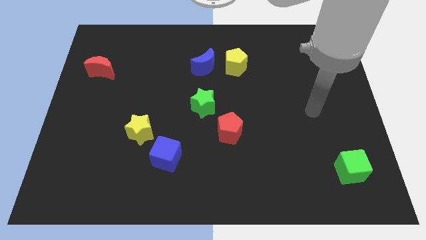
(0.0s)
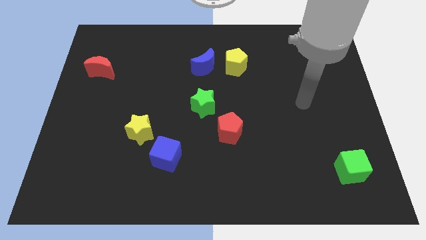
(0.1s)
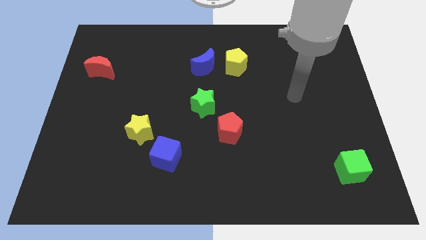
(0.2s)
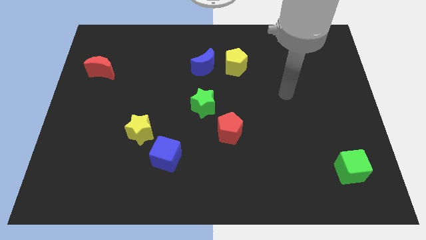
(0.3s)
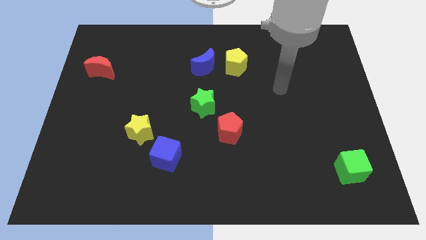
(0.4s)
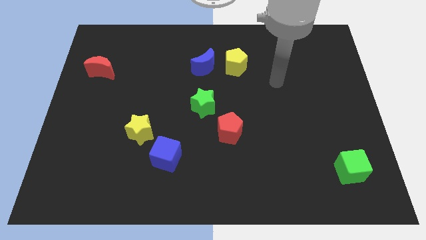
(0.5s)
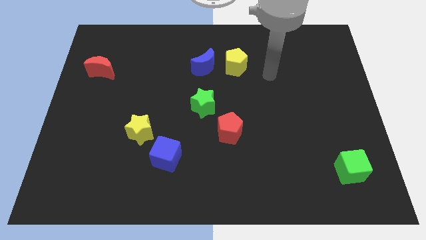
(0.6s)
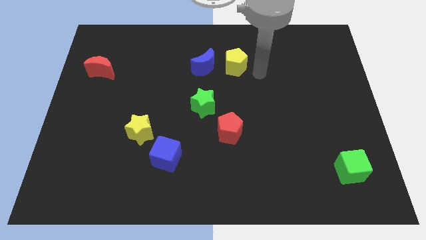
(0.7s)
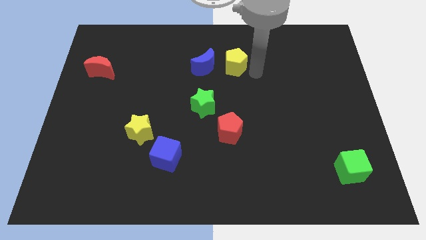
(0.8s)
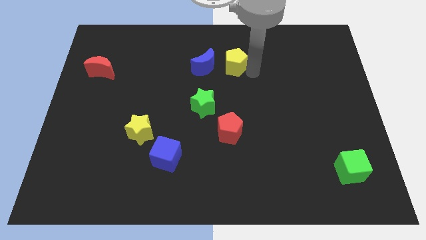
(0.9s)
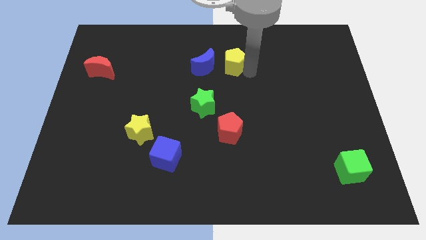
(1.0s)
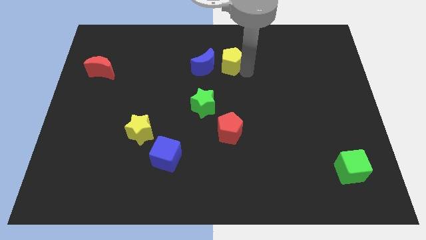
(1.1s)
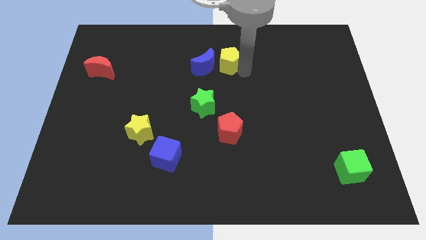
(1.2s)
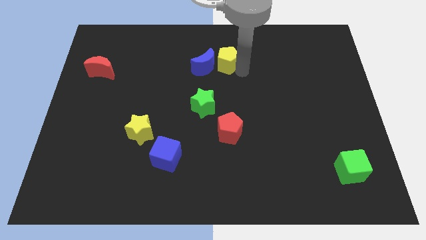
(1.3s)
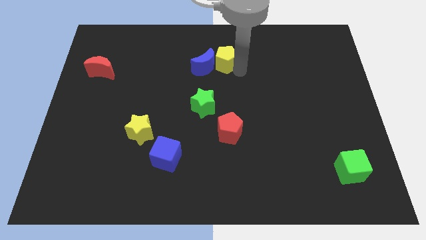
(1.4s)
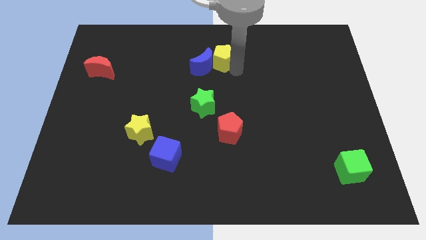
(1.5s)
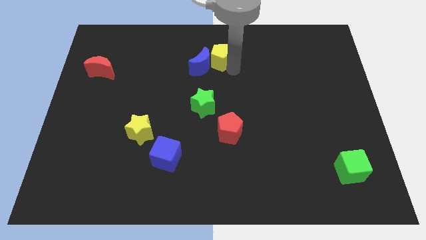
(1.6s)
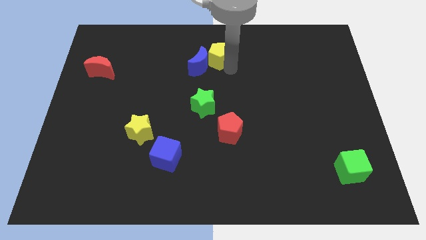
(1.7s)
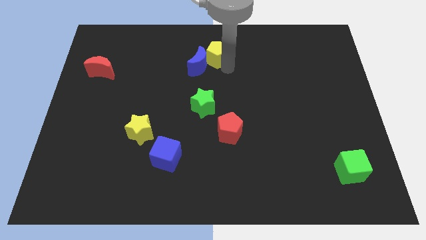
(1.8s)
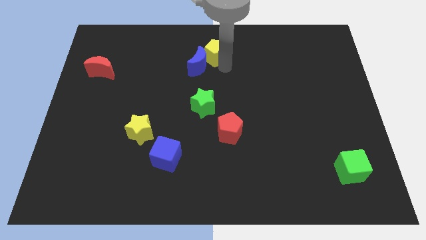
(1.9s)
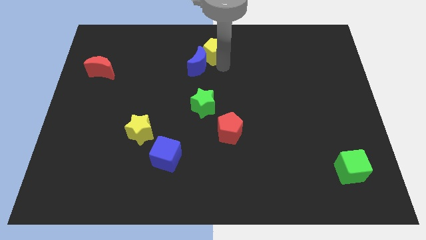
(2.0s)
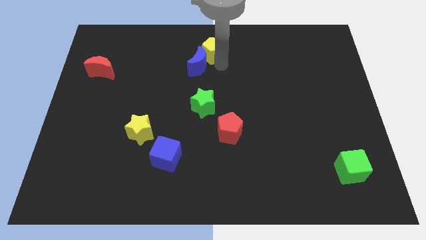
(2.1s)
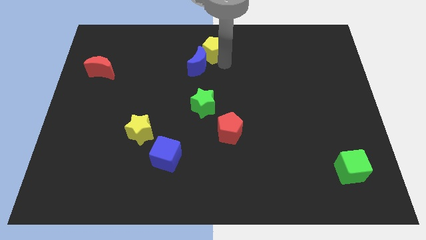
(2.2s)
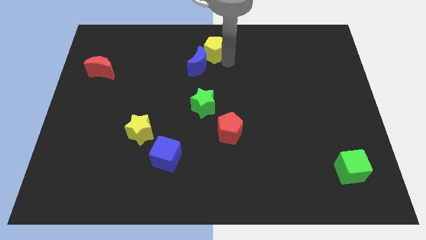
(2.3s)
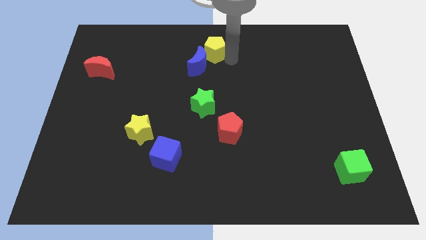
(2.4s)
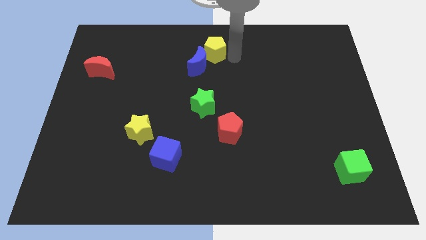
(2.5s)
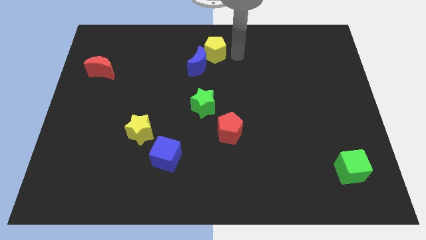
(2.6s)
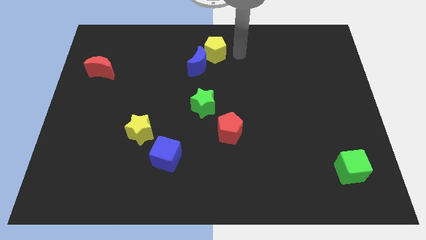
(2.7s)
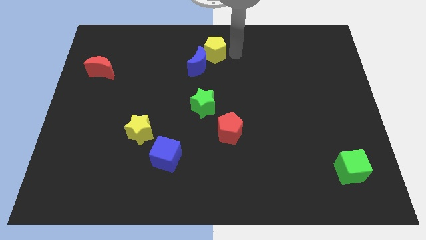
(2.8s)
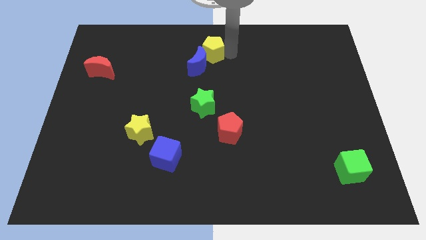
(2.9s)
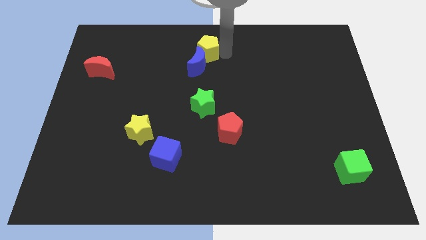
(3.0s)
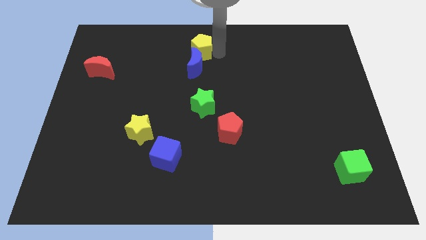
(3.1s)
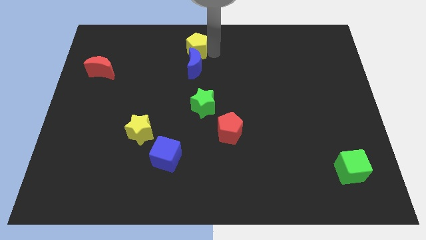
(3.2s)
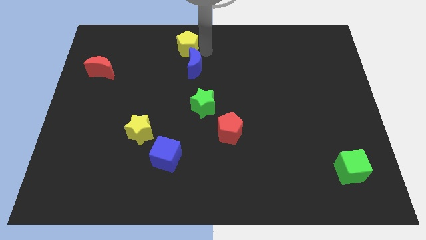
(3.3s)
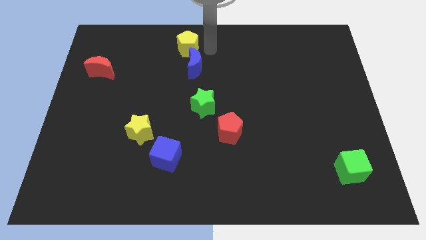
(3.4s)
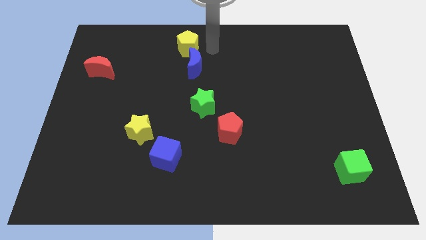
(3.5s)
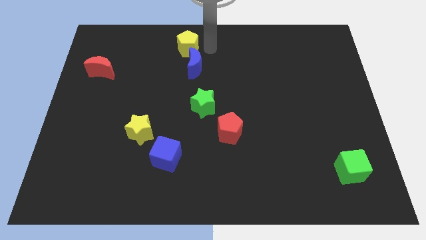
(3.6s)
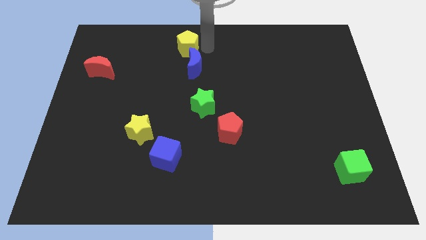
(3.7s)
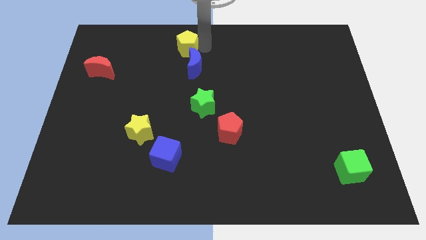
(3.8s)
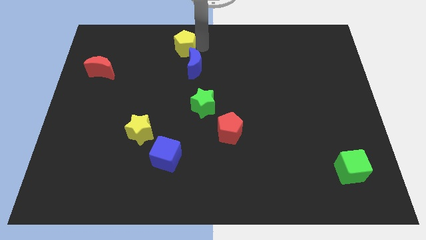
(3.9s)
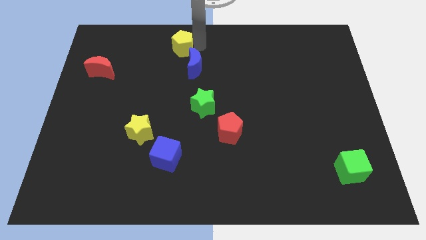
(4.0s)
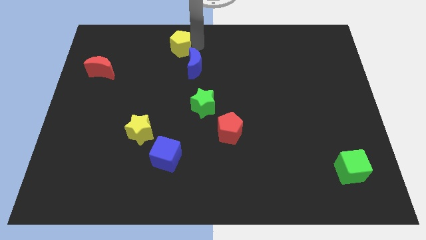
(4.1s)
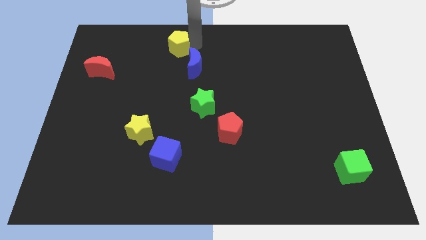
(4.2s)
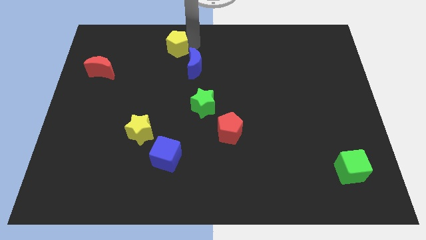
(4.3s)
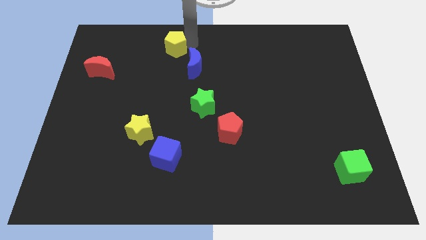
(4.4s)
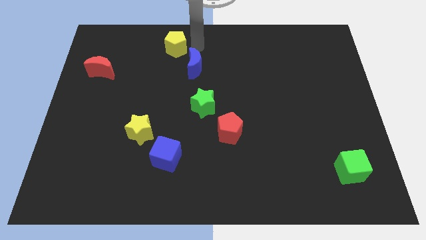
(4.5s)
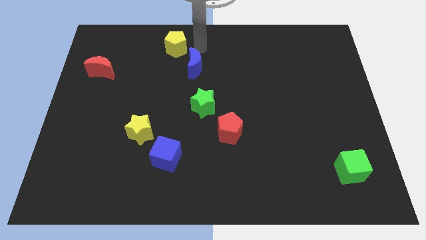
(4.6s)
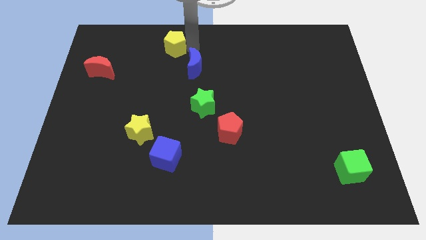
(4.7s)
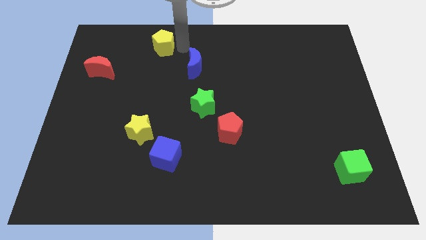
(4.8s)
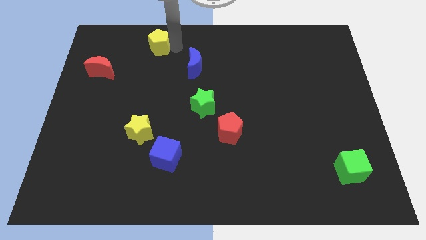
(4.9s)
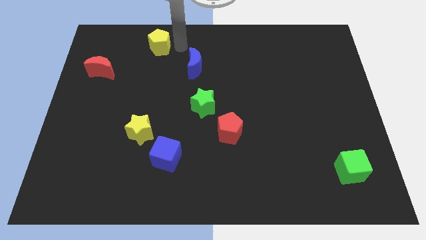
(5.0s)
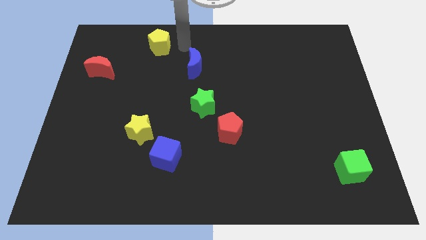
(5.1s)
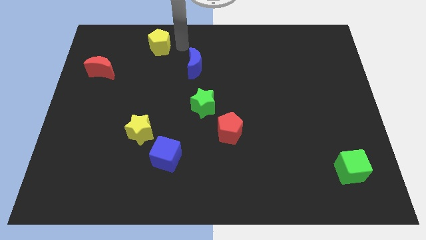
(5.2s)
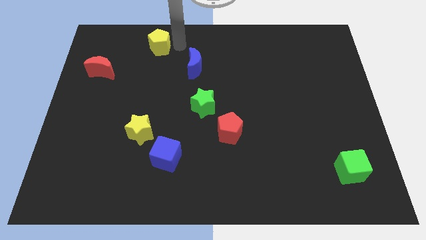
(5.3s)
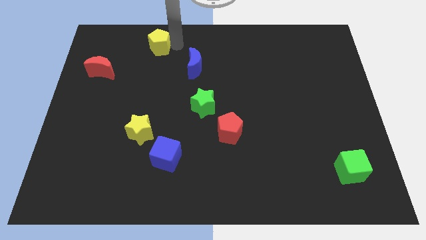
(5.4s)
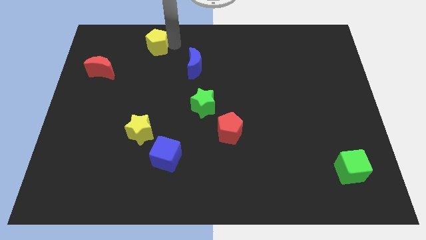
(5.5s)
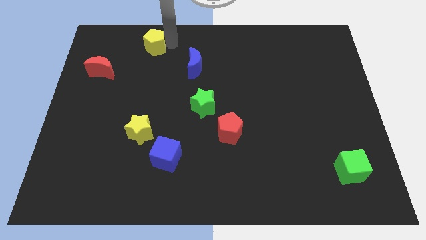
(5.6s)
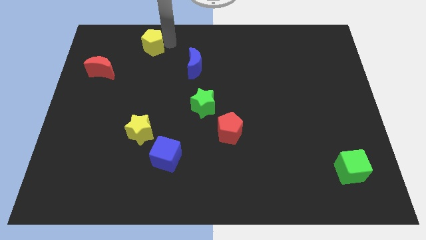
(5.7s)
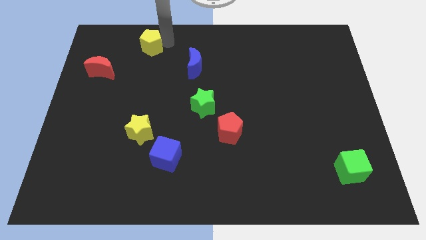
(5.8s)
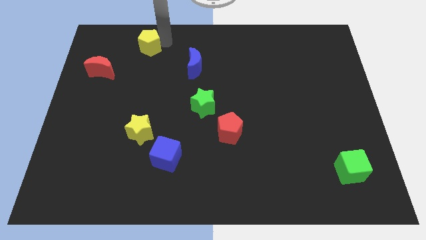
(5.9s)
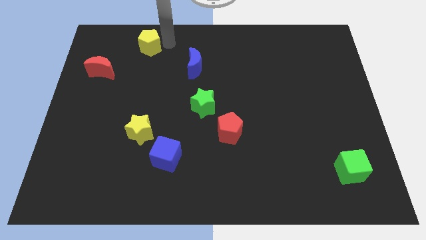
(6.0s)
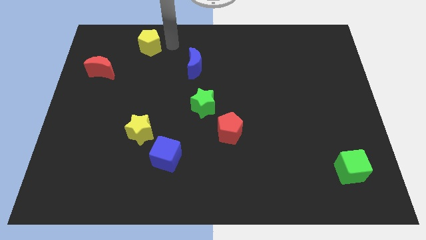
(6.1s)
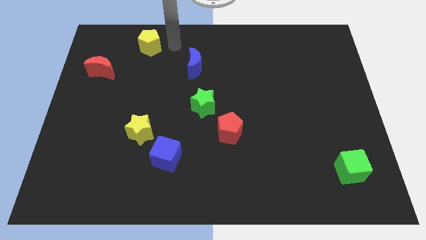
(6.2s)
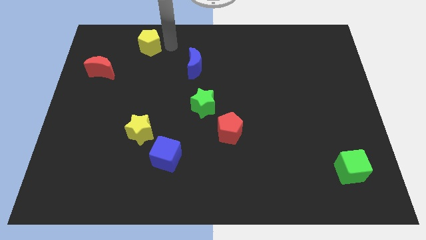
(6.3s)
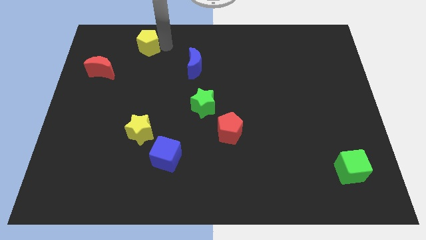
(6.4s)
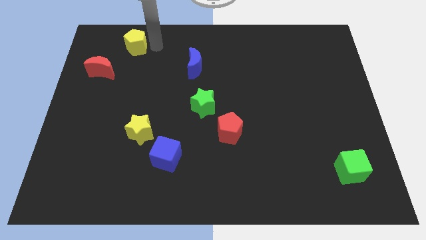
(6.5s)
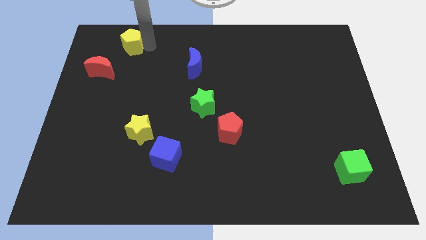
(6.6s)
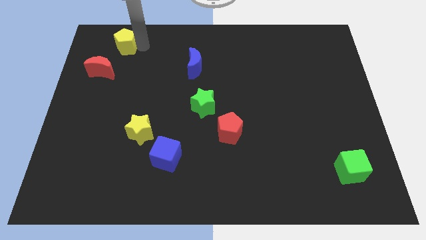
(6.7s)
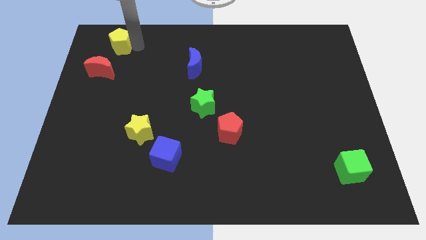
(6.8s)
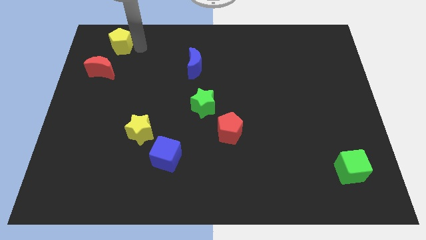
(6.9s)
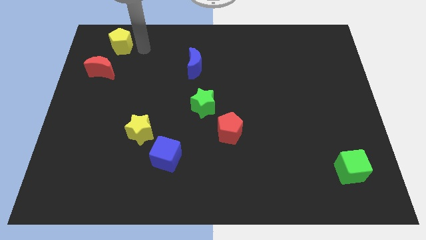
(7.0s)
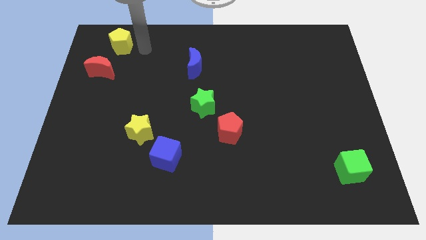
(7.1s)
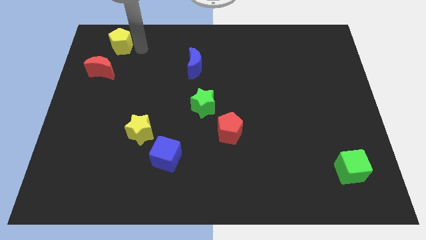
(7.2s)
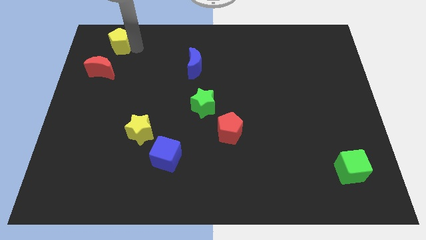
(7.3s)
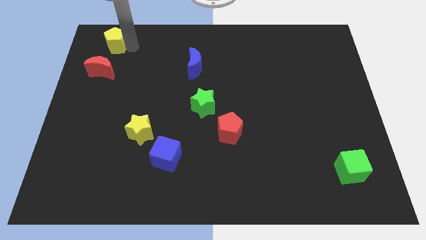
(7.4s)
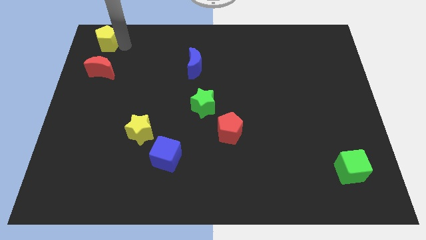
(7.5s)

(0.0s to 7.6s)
push the yellow pentagon to the upper left corner
